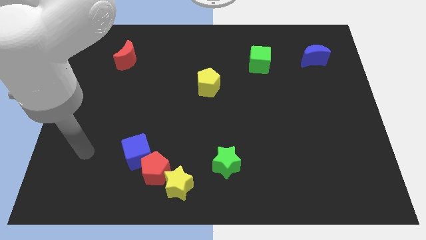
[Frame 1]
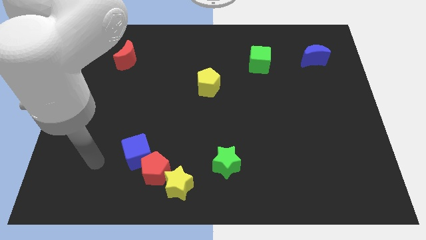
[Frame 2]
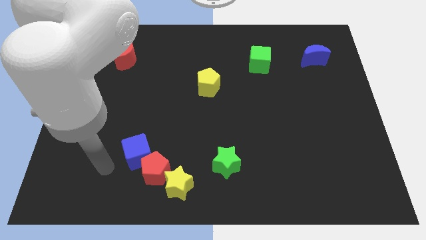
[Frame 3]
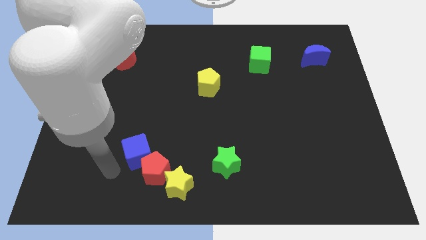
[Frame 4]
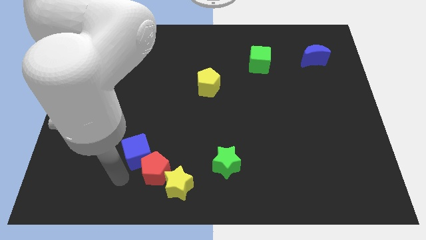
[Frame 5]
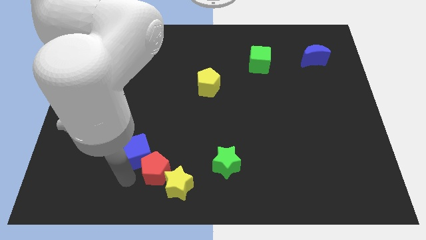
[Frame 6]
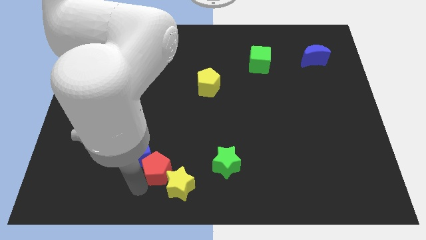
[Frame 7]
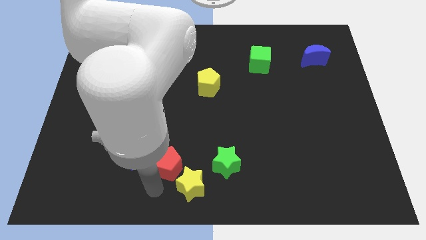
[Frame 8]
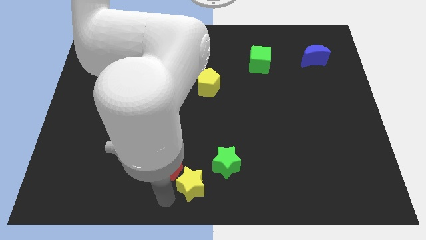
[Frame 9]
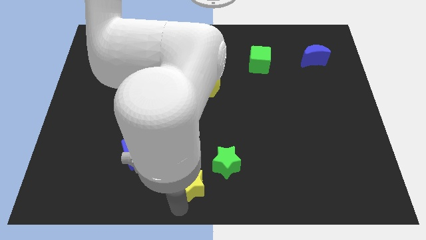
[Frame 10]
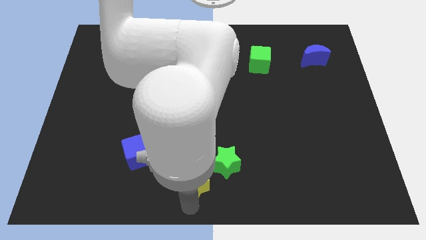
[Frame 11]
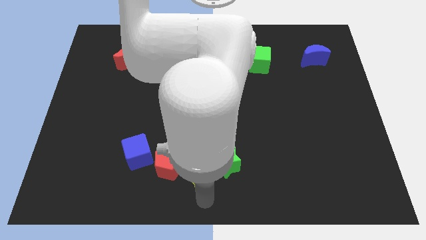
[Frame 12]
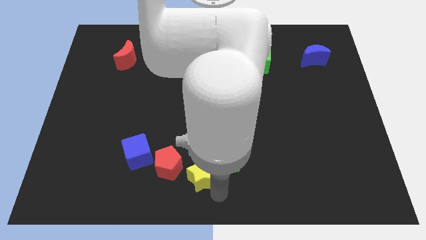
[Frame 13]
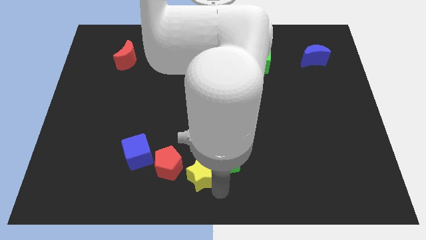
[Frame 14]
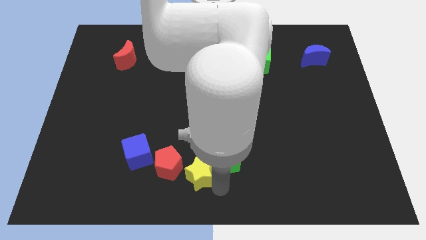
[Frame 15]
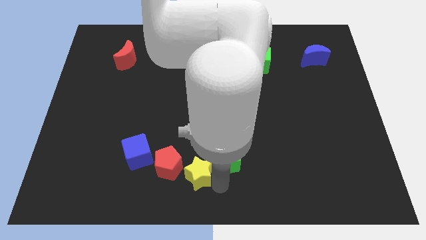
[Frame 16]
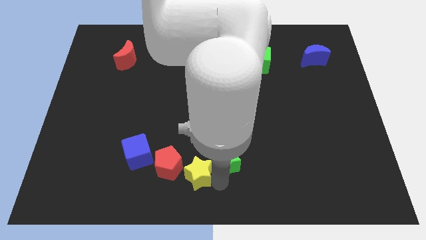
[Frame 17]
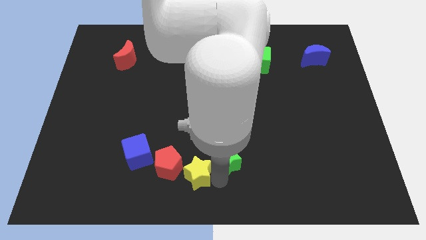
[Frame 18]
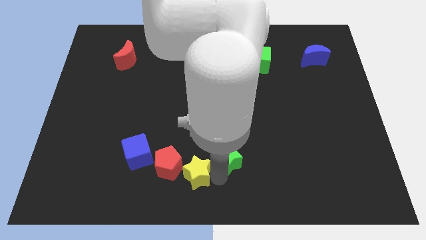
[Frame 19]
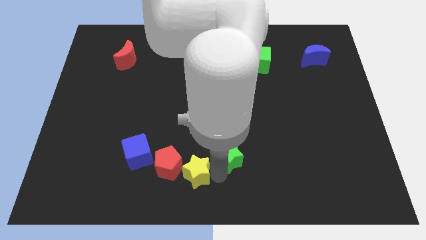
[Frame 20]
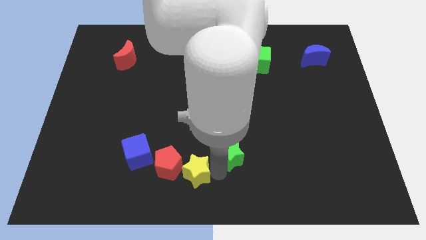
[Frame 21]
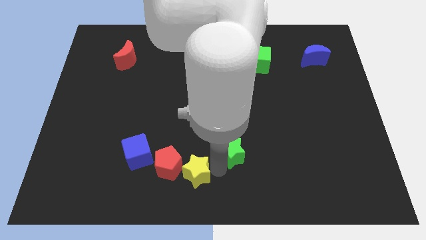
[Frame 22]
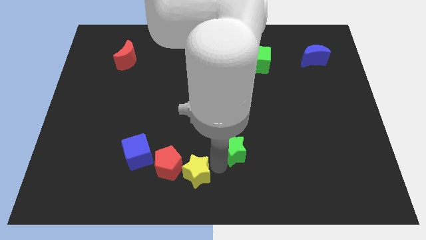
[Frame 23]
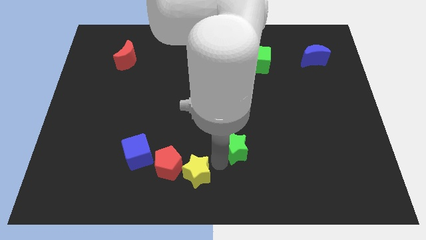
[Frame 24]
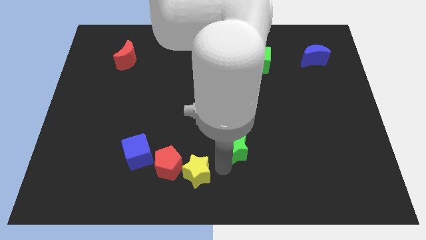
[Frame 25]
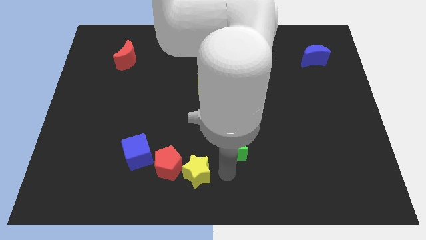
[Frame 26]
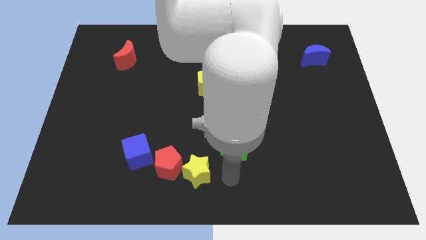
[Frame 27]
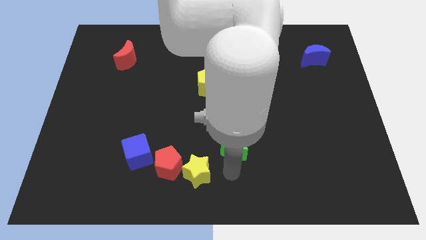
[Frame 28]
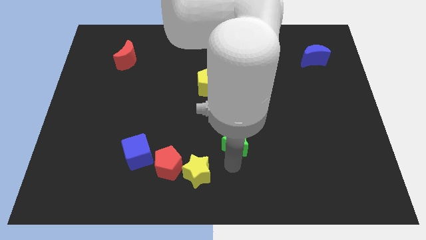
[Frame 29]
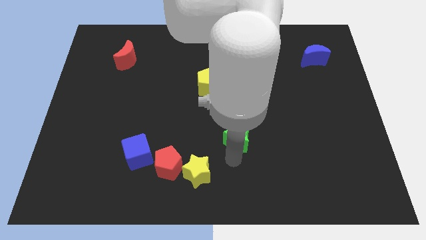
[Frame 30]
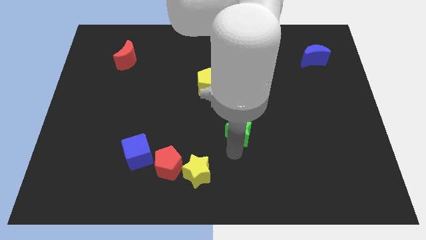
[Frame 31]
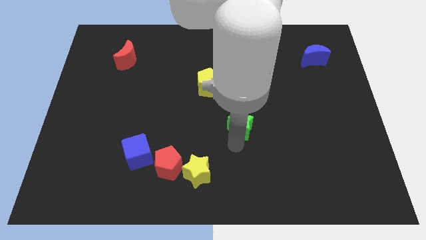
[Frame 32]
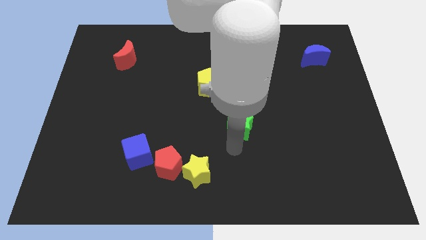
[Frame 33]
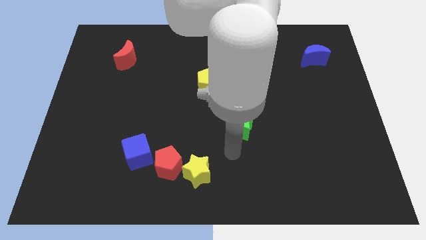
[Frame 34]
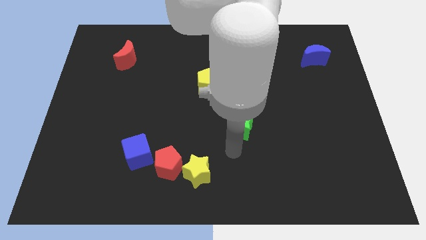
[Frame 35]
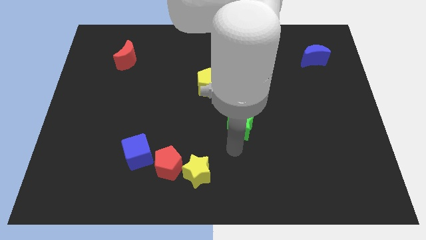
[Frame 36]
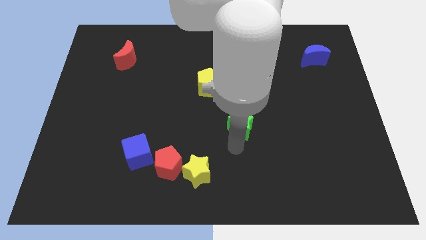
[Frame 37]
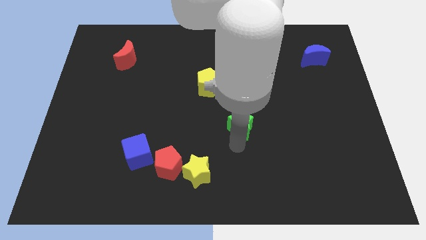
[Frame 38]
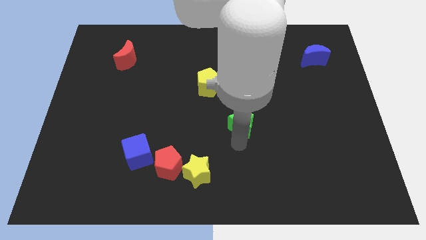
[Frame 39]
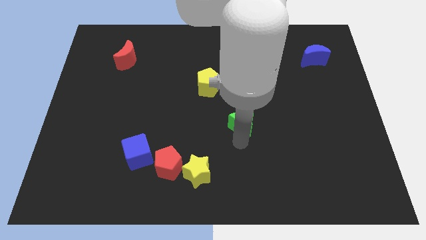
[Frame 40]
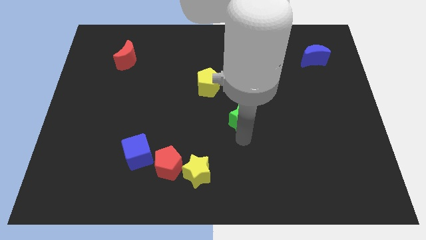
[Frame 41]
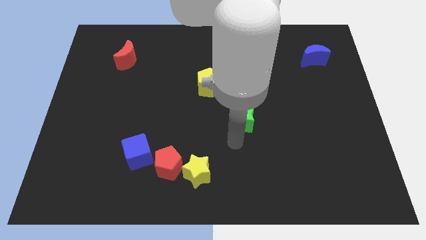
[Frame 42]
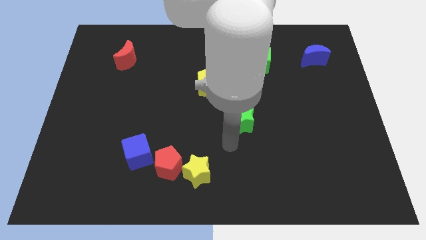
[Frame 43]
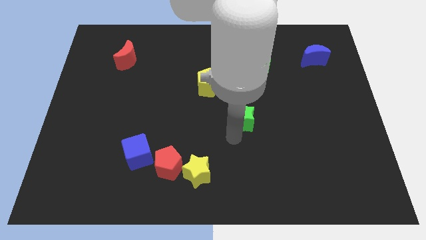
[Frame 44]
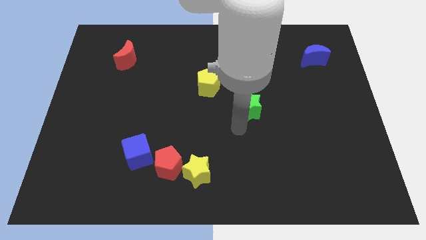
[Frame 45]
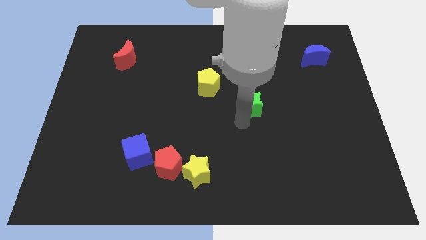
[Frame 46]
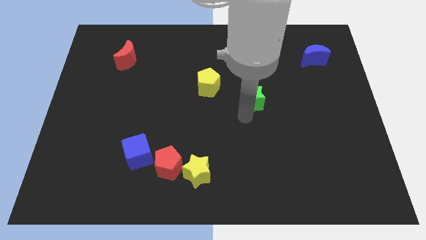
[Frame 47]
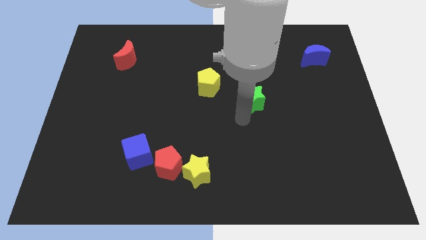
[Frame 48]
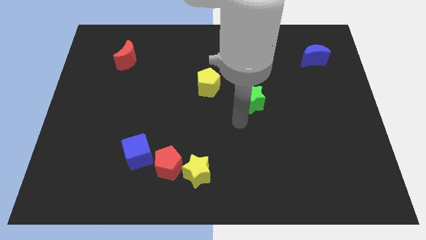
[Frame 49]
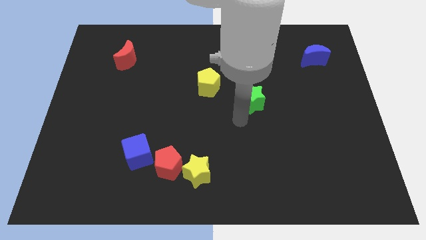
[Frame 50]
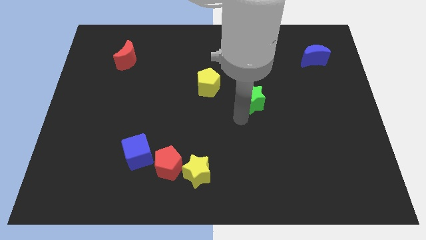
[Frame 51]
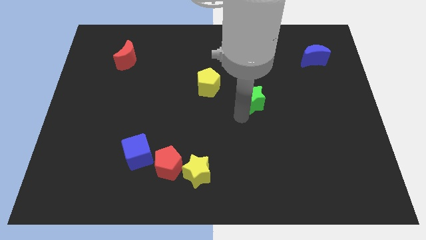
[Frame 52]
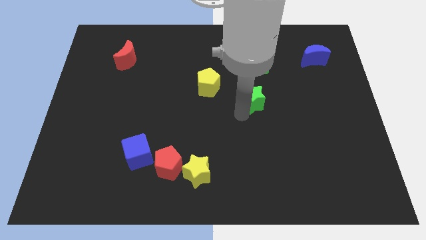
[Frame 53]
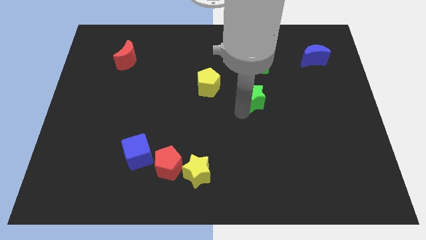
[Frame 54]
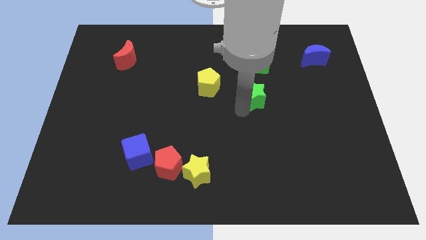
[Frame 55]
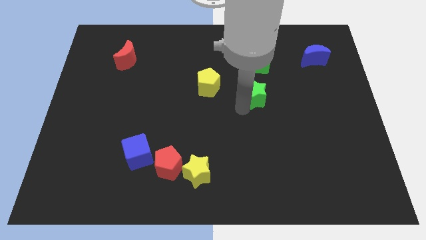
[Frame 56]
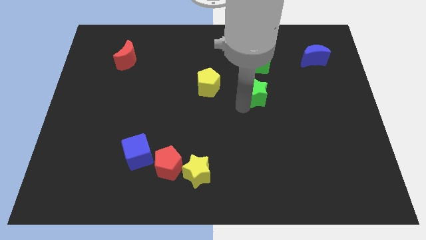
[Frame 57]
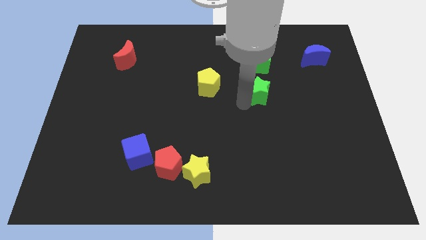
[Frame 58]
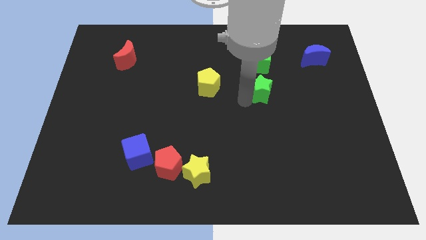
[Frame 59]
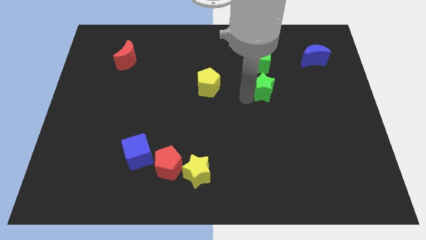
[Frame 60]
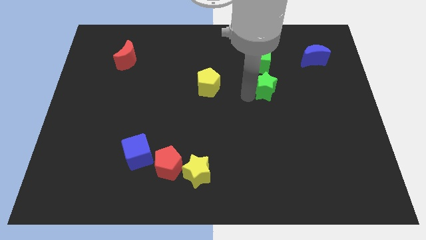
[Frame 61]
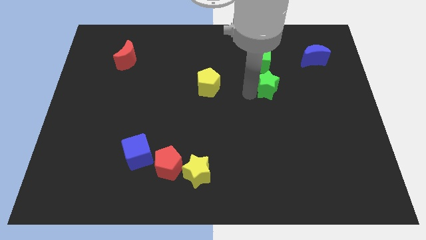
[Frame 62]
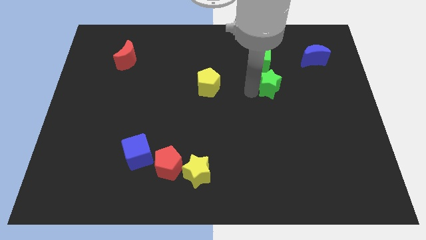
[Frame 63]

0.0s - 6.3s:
put the green star to the bottom right of the green cube

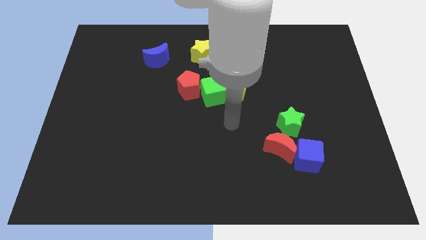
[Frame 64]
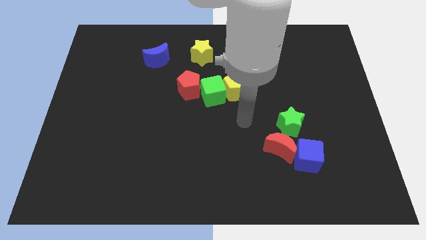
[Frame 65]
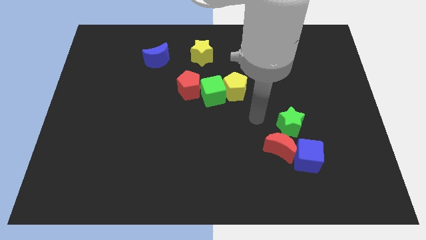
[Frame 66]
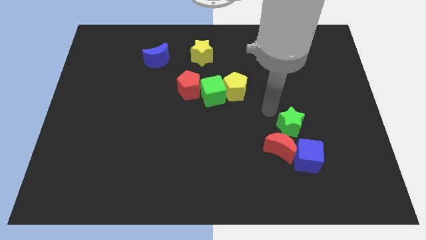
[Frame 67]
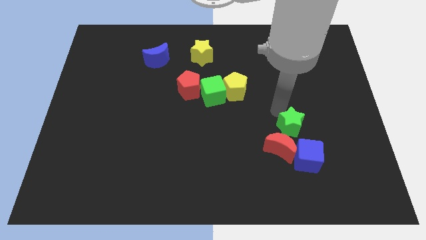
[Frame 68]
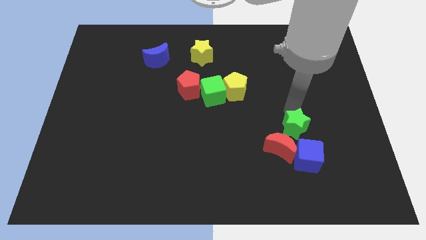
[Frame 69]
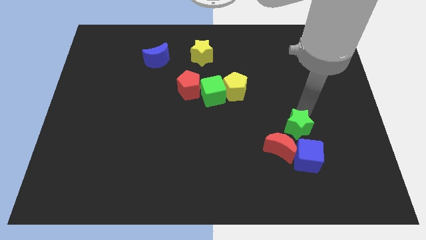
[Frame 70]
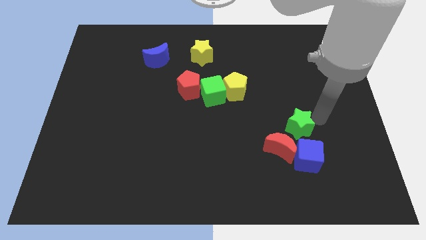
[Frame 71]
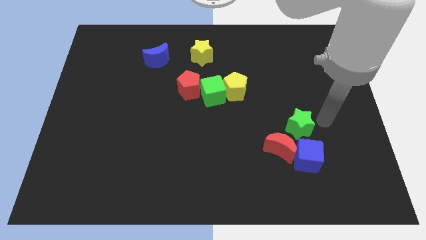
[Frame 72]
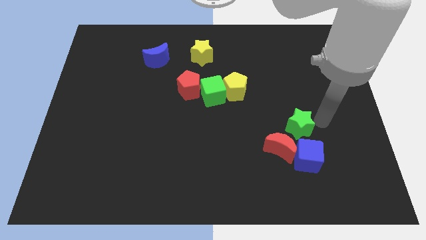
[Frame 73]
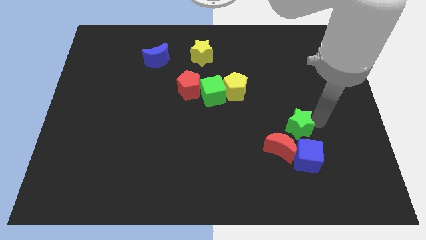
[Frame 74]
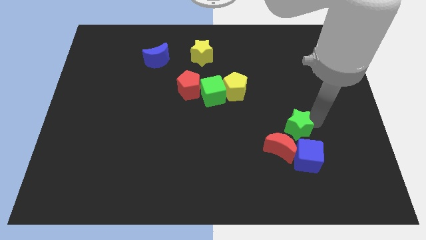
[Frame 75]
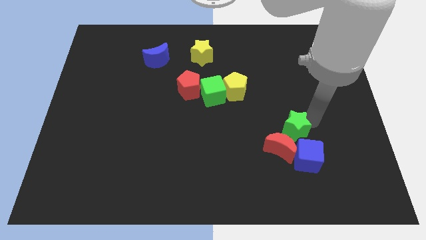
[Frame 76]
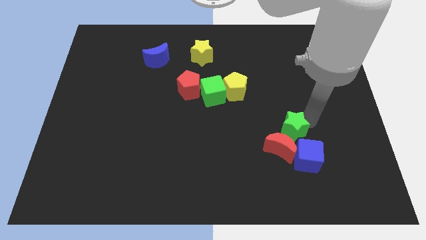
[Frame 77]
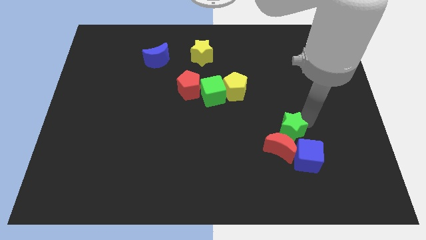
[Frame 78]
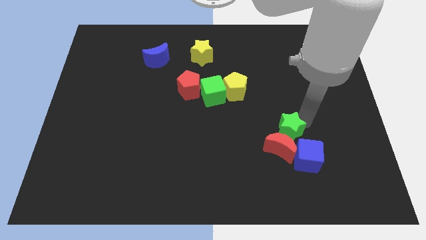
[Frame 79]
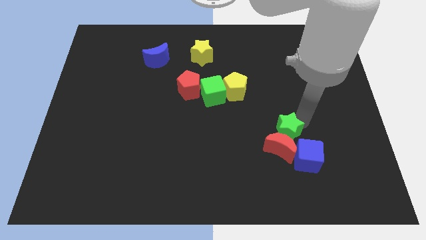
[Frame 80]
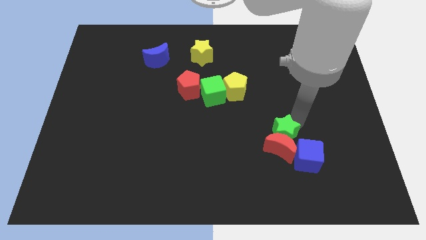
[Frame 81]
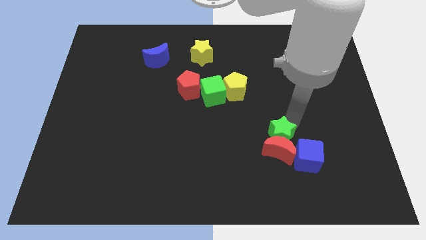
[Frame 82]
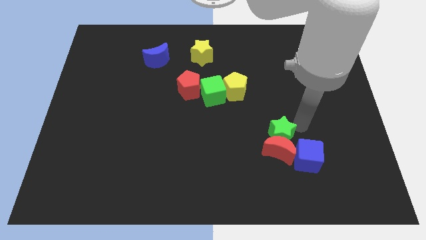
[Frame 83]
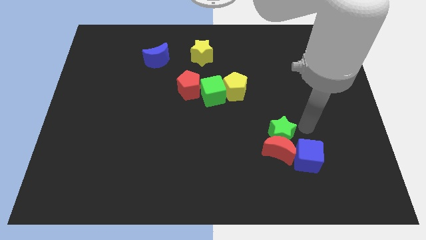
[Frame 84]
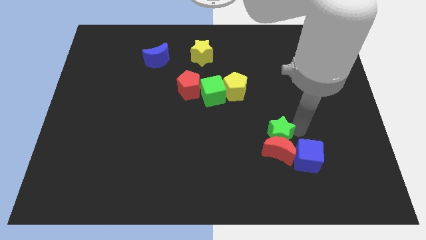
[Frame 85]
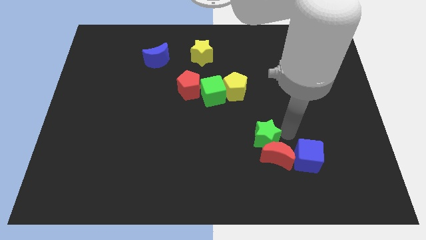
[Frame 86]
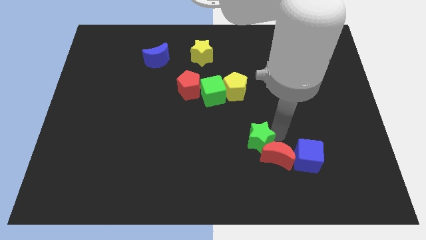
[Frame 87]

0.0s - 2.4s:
push the green star to the left of the red moon
